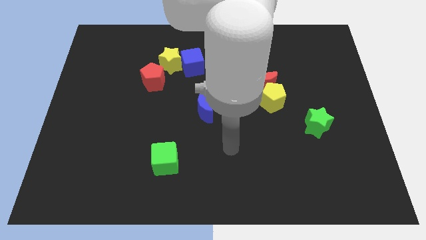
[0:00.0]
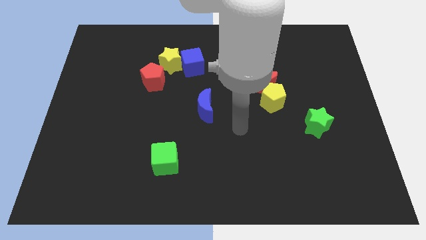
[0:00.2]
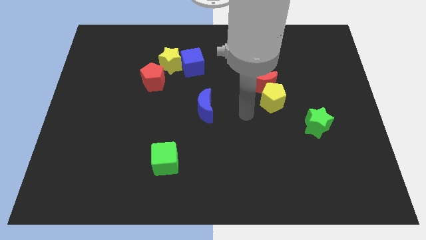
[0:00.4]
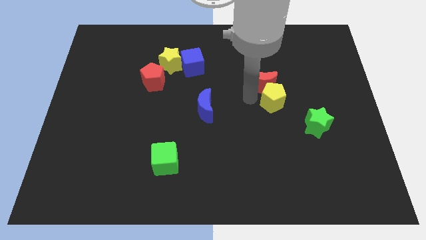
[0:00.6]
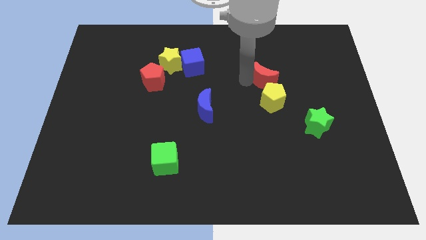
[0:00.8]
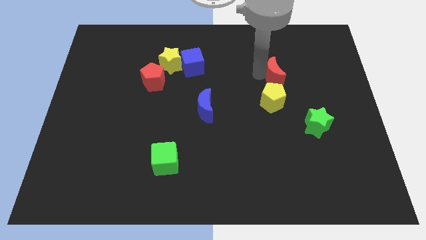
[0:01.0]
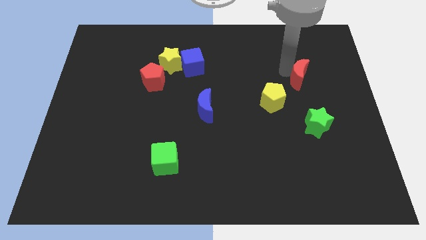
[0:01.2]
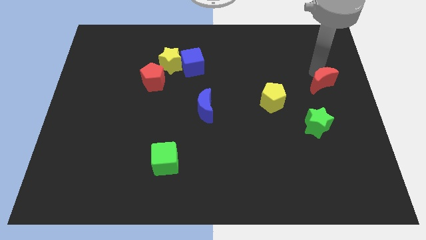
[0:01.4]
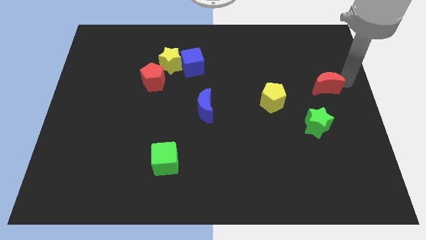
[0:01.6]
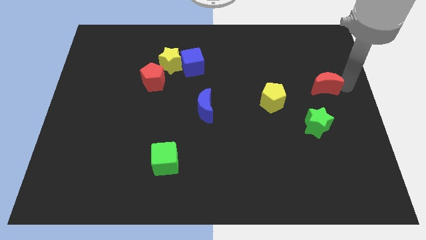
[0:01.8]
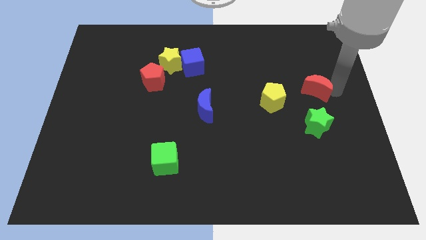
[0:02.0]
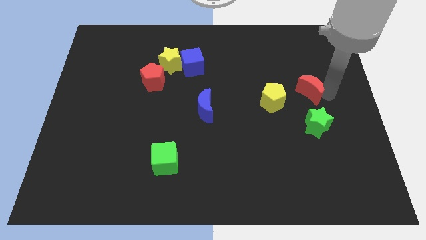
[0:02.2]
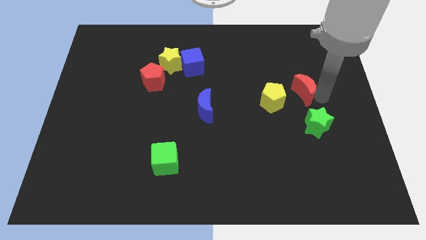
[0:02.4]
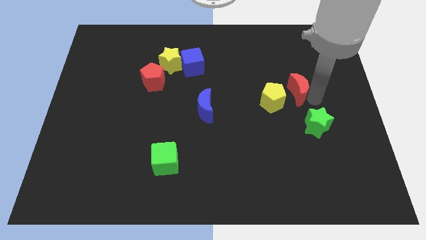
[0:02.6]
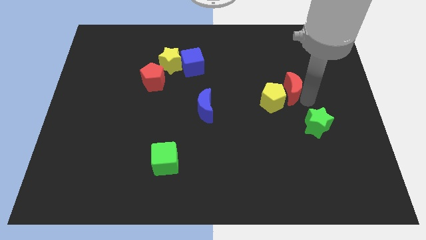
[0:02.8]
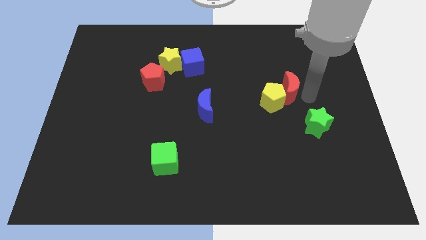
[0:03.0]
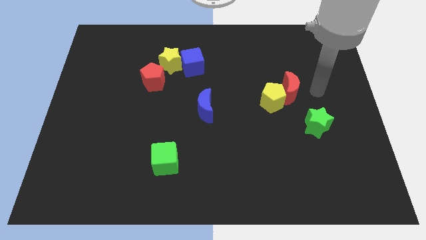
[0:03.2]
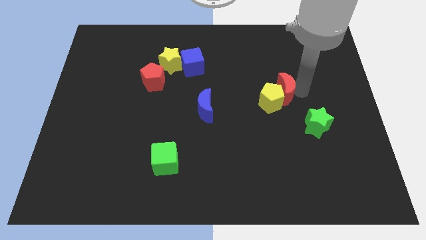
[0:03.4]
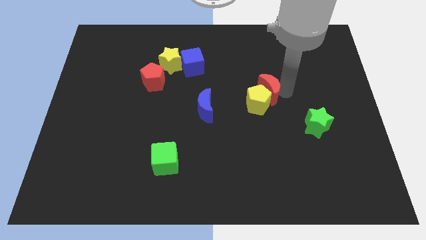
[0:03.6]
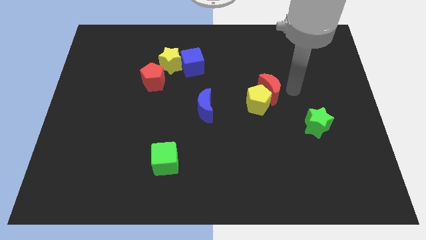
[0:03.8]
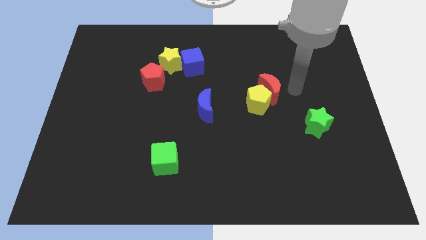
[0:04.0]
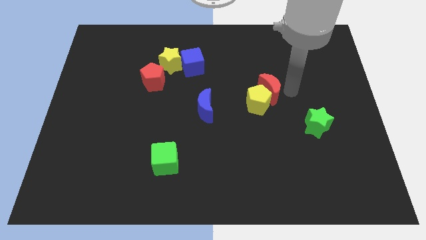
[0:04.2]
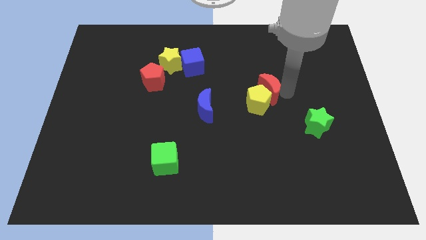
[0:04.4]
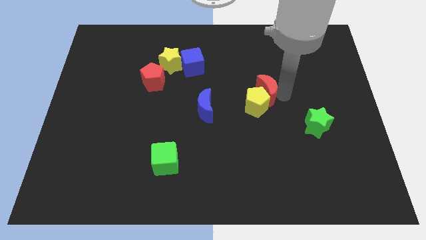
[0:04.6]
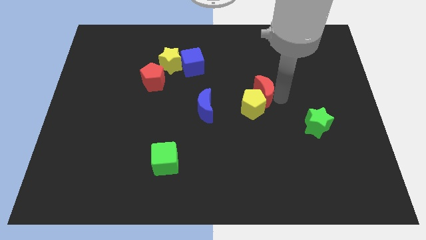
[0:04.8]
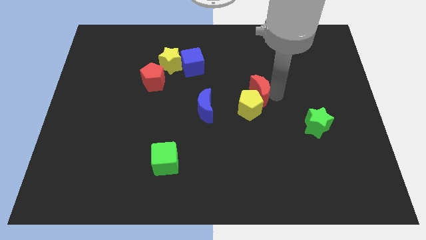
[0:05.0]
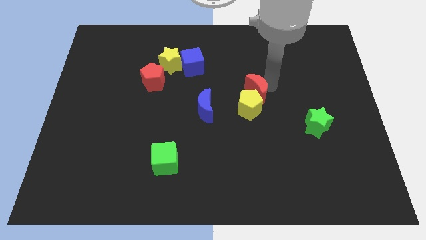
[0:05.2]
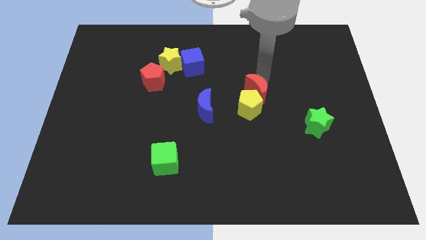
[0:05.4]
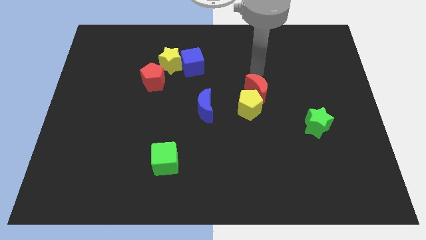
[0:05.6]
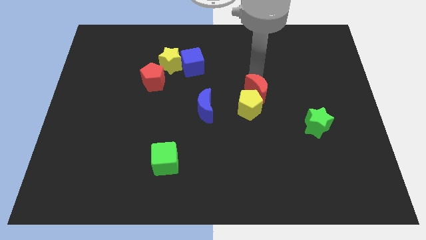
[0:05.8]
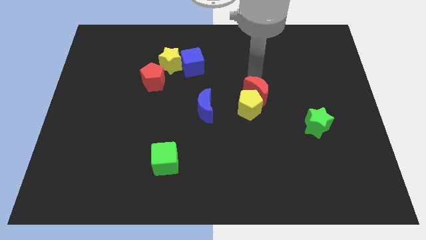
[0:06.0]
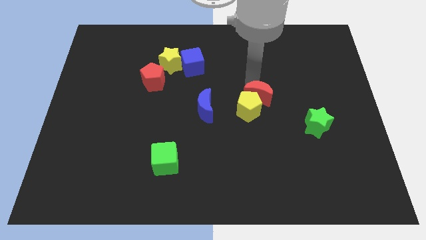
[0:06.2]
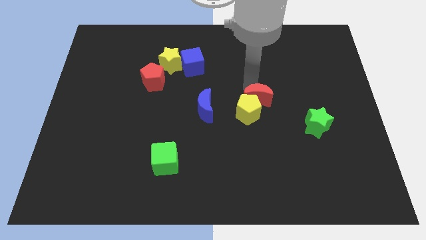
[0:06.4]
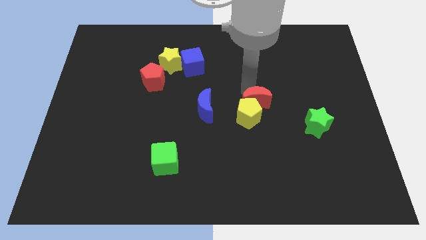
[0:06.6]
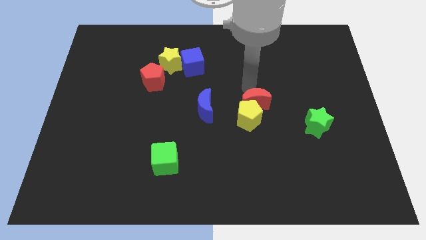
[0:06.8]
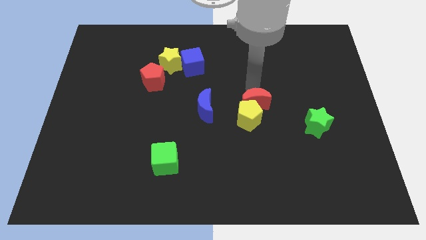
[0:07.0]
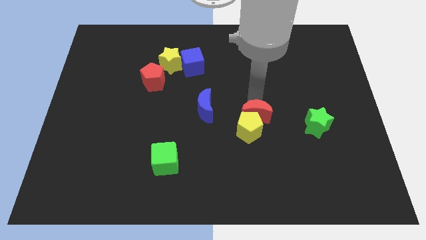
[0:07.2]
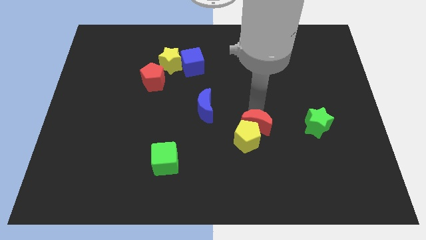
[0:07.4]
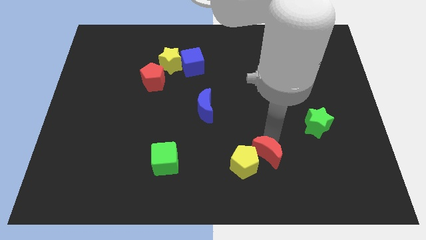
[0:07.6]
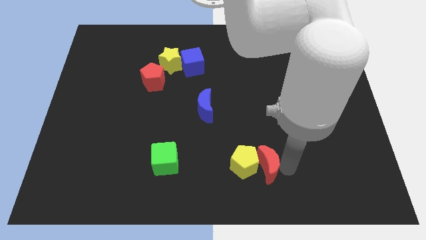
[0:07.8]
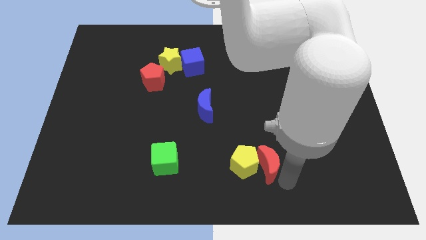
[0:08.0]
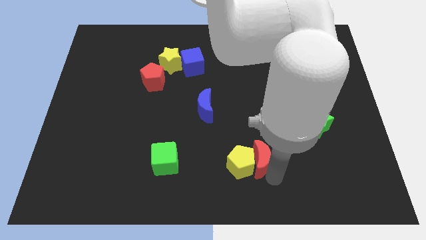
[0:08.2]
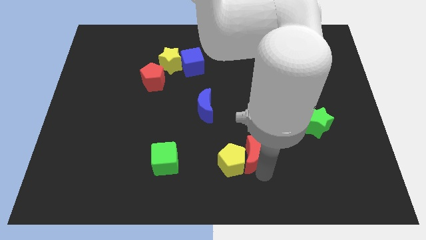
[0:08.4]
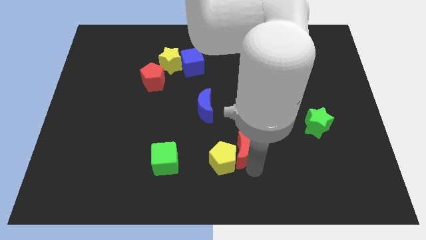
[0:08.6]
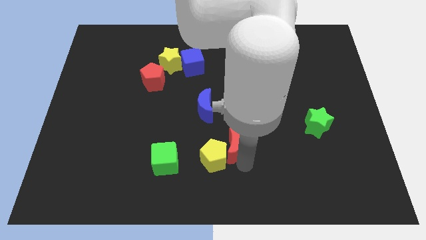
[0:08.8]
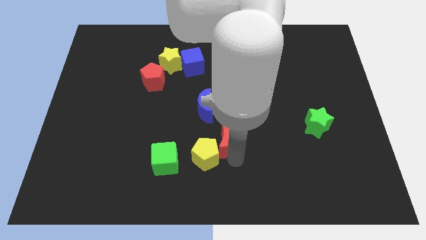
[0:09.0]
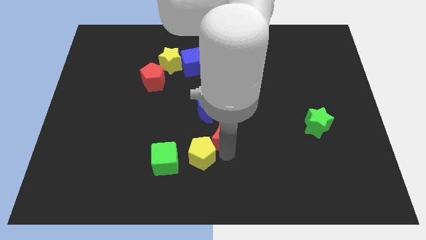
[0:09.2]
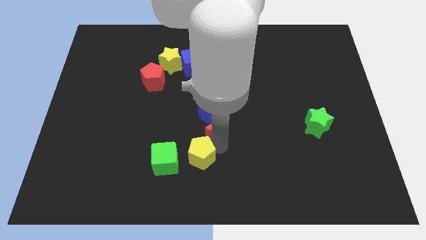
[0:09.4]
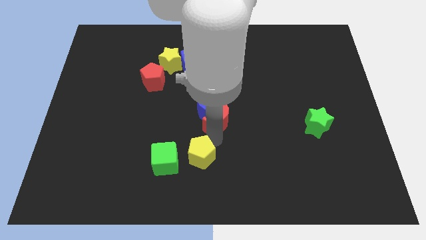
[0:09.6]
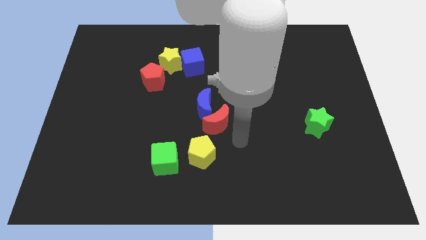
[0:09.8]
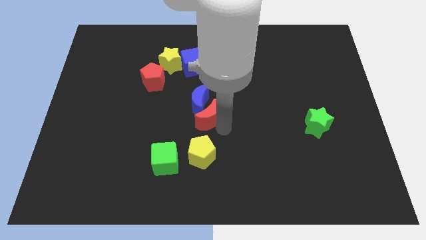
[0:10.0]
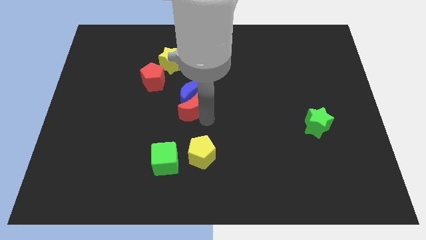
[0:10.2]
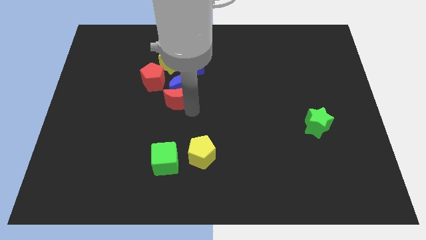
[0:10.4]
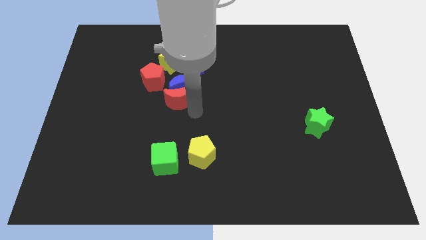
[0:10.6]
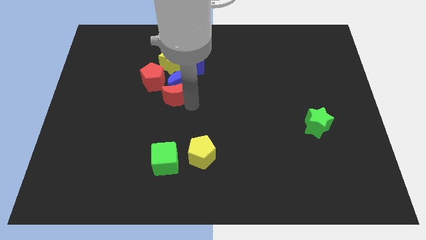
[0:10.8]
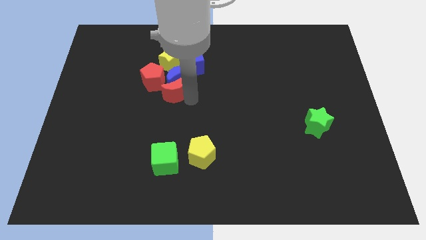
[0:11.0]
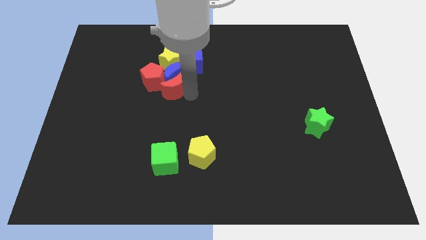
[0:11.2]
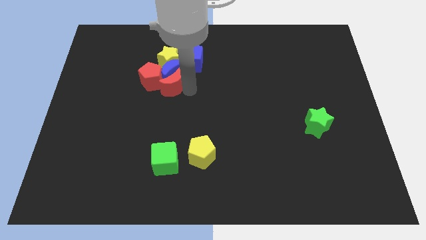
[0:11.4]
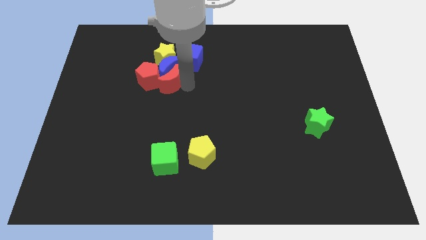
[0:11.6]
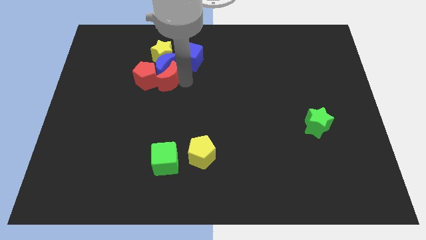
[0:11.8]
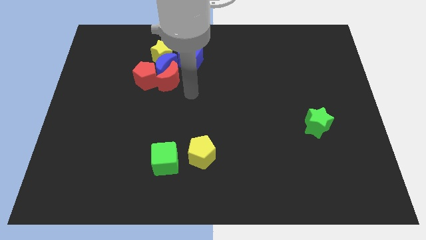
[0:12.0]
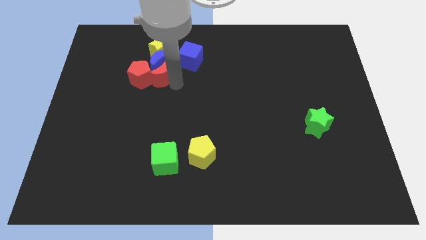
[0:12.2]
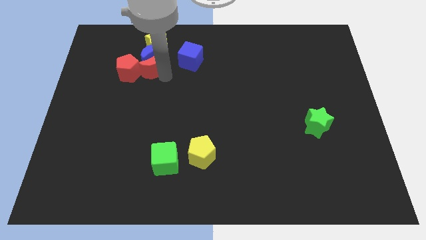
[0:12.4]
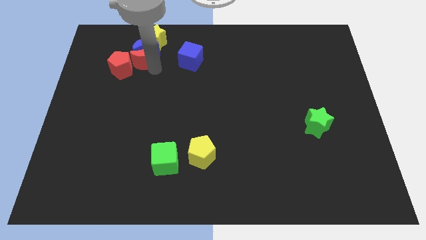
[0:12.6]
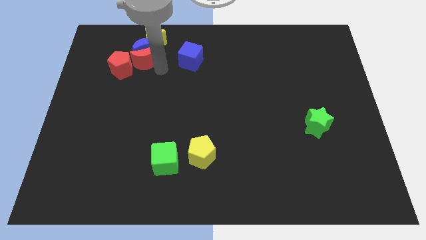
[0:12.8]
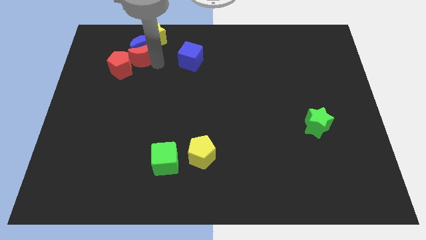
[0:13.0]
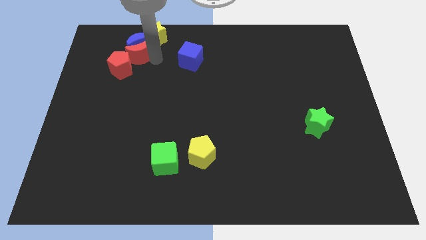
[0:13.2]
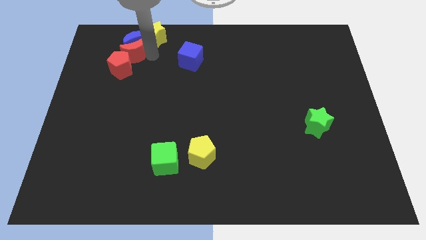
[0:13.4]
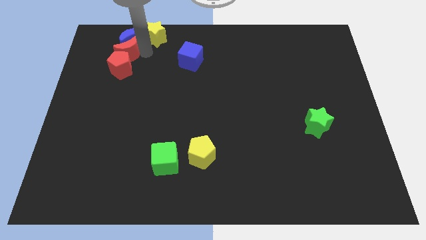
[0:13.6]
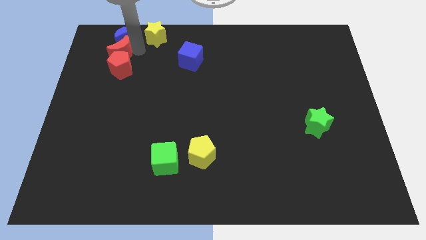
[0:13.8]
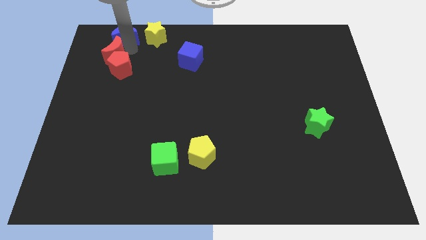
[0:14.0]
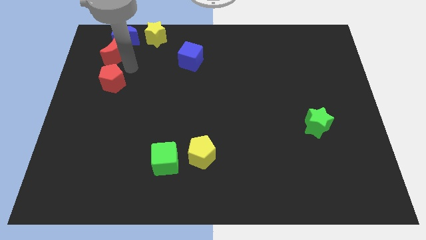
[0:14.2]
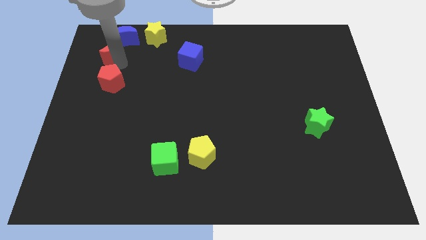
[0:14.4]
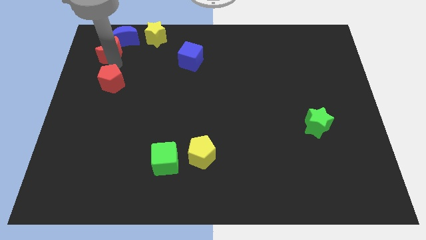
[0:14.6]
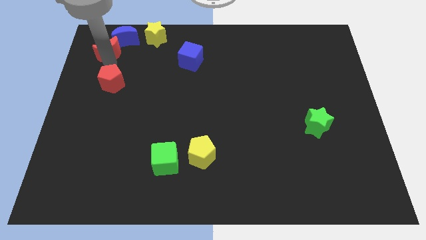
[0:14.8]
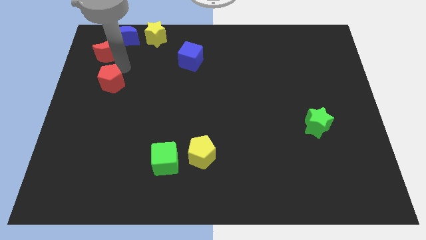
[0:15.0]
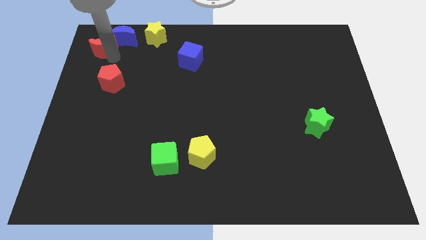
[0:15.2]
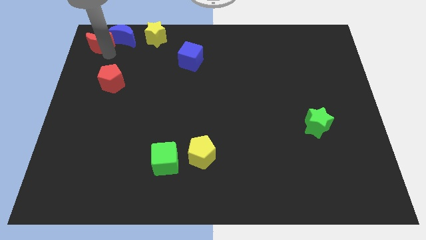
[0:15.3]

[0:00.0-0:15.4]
move the red moon to the top left corner

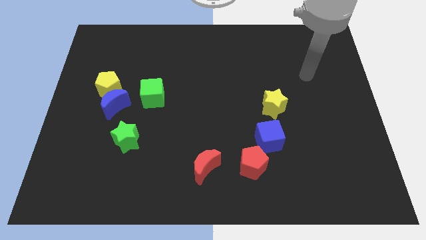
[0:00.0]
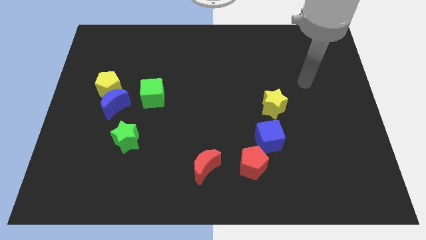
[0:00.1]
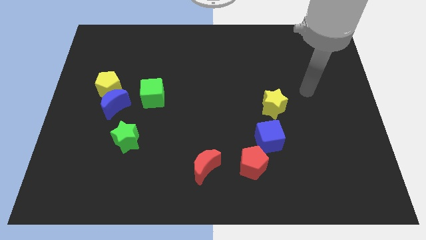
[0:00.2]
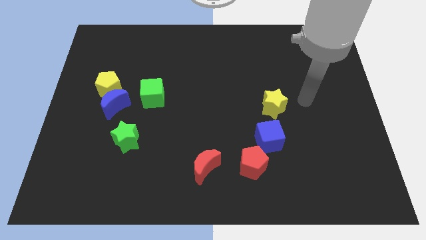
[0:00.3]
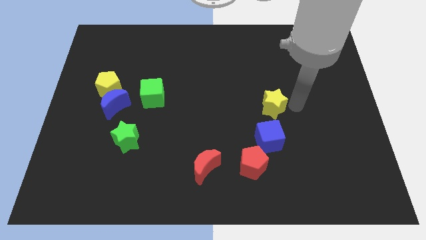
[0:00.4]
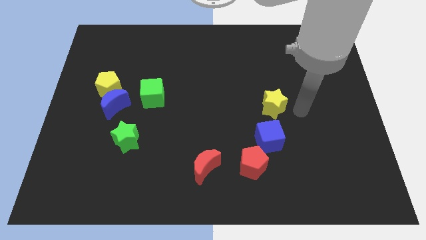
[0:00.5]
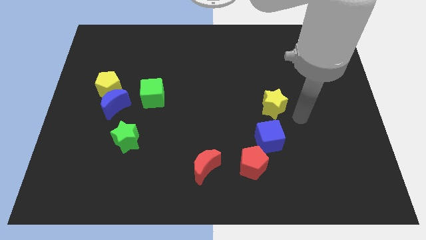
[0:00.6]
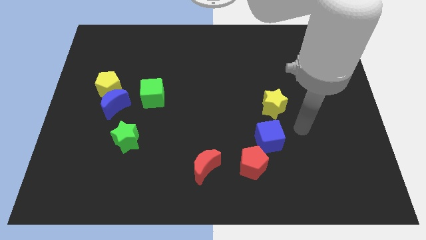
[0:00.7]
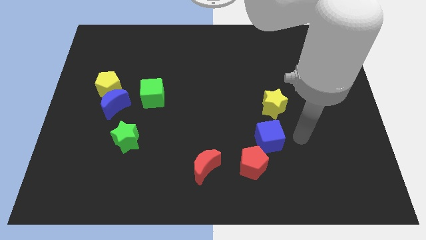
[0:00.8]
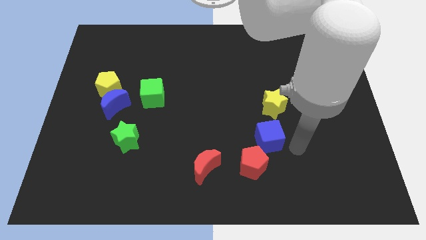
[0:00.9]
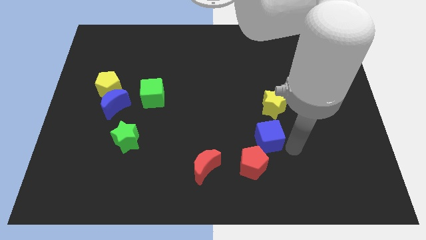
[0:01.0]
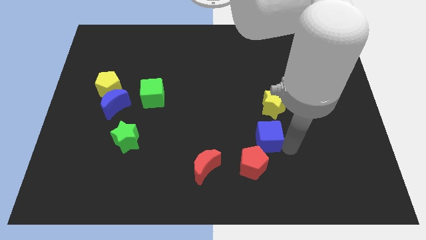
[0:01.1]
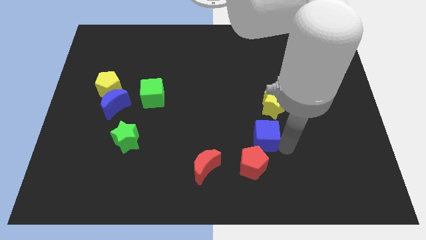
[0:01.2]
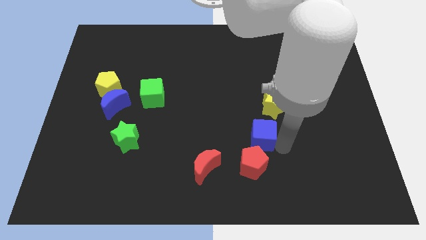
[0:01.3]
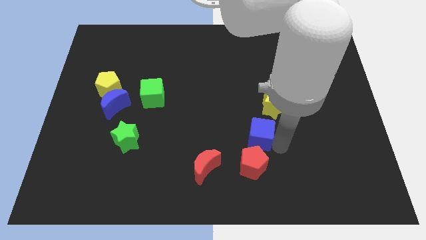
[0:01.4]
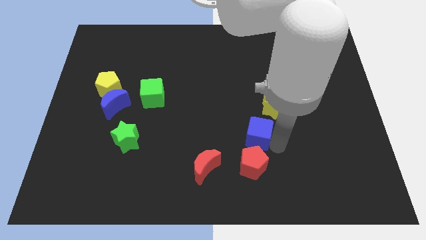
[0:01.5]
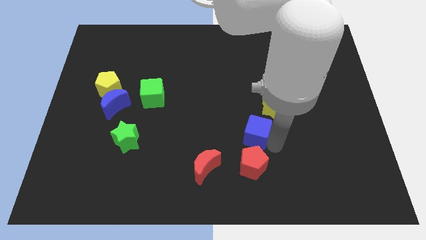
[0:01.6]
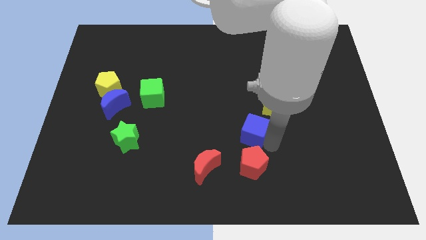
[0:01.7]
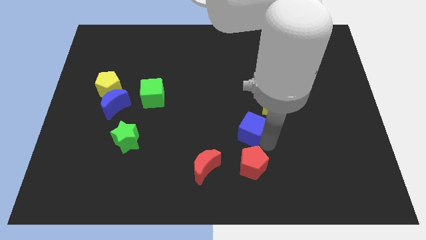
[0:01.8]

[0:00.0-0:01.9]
put the blue cube to the center
